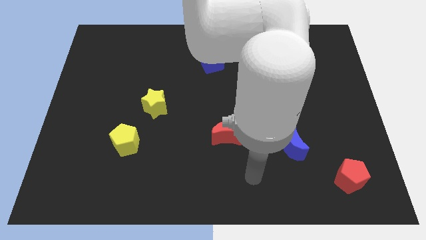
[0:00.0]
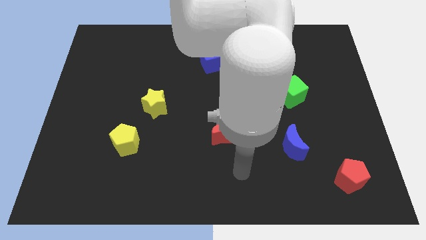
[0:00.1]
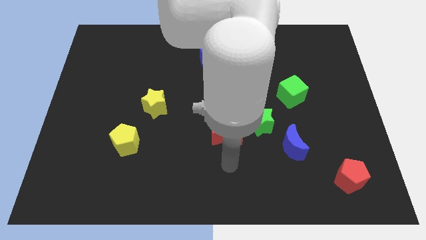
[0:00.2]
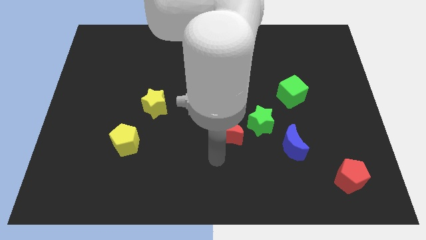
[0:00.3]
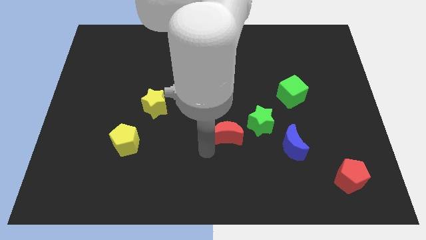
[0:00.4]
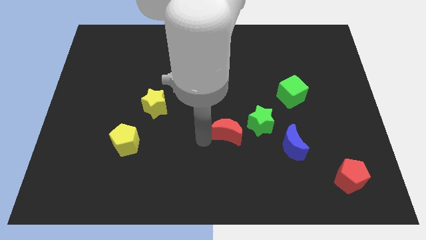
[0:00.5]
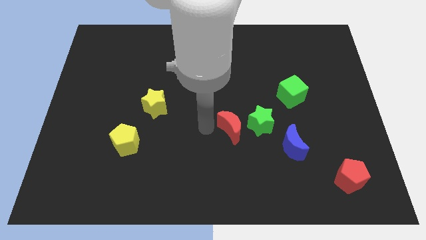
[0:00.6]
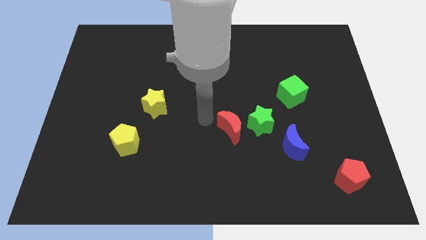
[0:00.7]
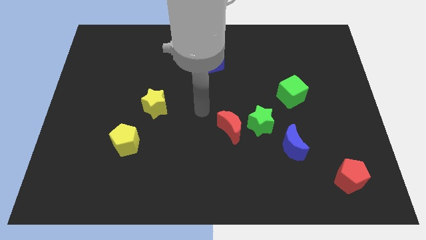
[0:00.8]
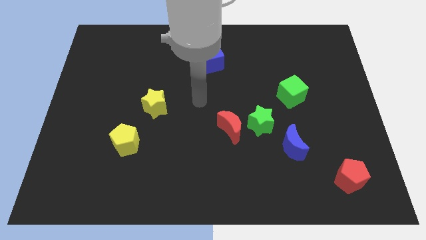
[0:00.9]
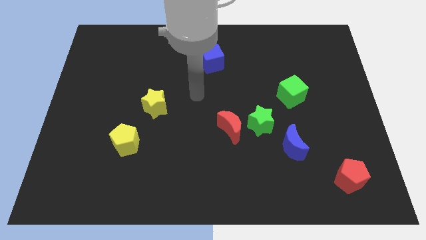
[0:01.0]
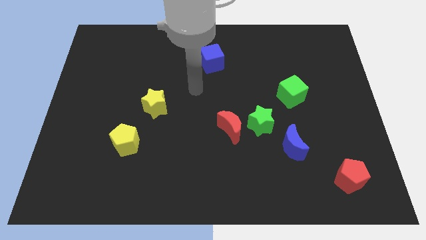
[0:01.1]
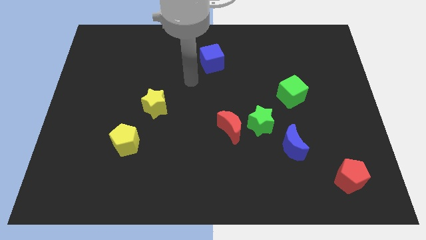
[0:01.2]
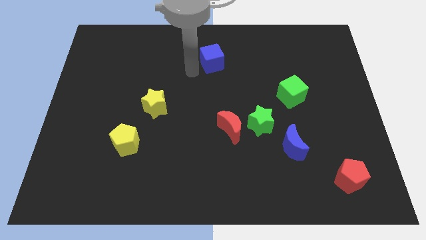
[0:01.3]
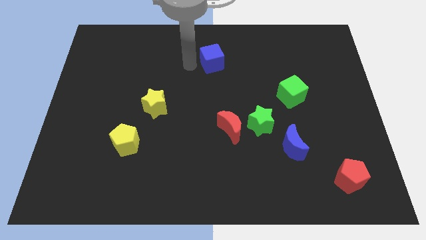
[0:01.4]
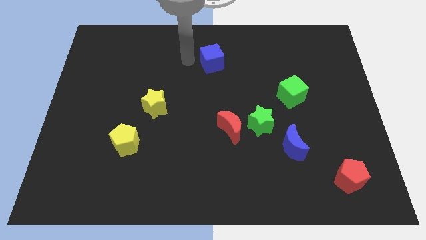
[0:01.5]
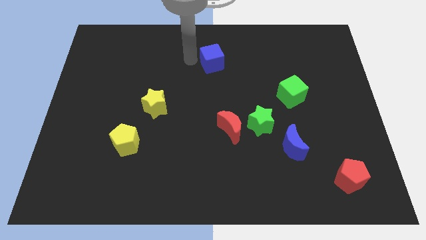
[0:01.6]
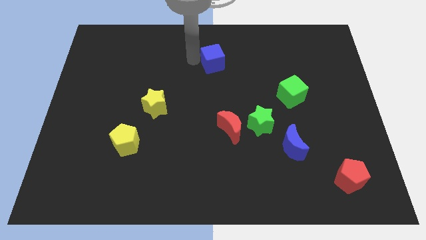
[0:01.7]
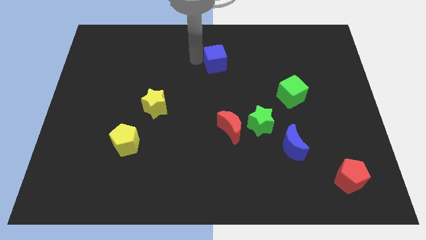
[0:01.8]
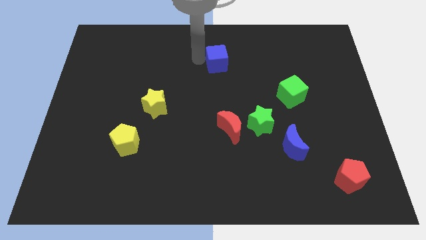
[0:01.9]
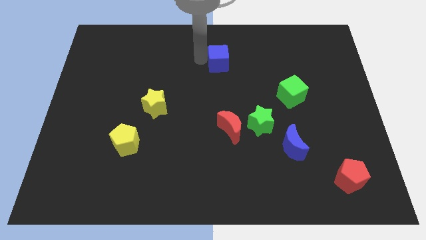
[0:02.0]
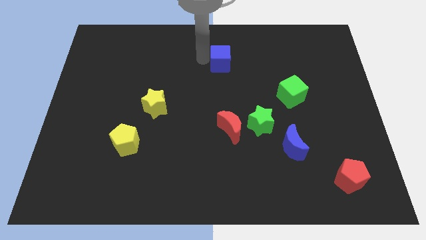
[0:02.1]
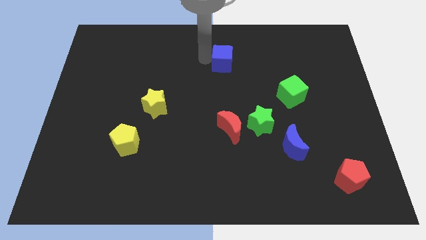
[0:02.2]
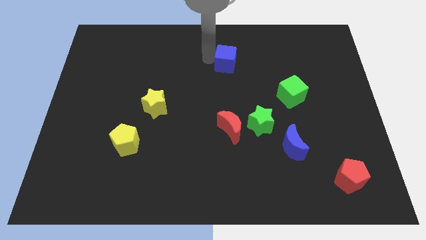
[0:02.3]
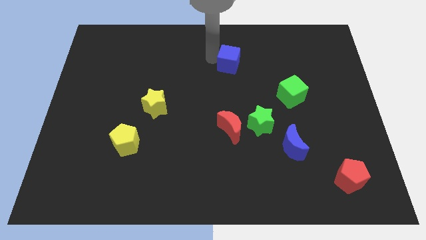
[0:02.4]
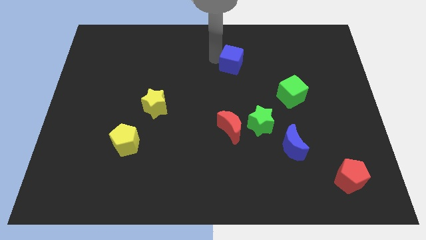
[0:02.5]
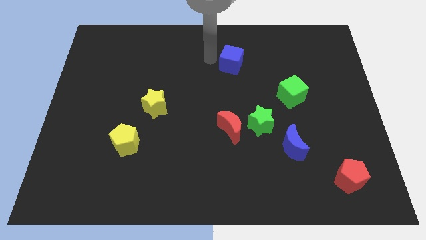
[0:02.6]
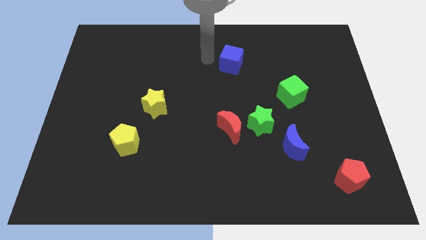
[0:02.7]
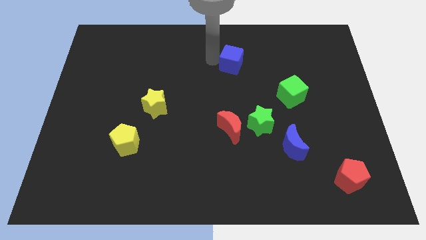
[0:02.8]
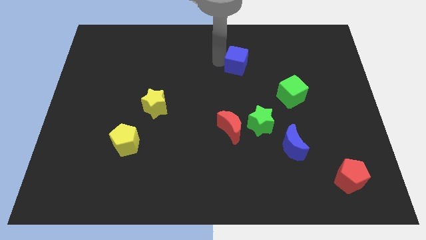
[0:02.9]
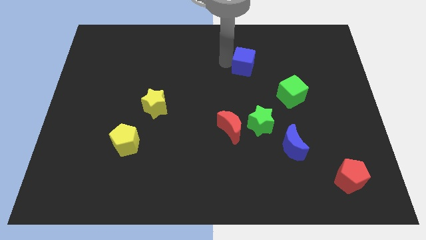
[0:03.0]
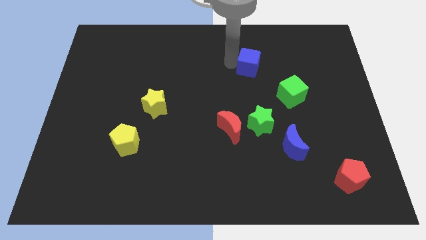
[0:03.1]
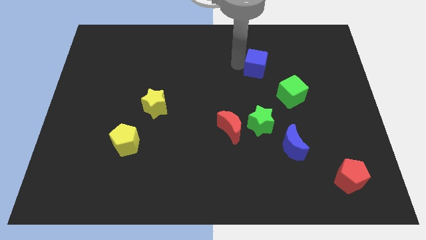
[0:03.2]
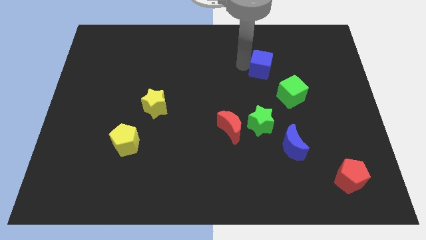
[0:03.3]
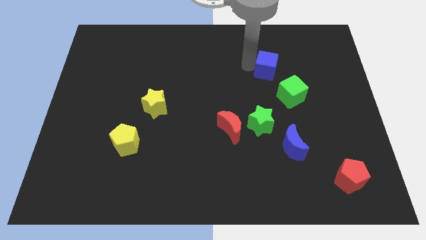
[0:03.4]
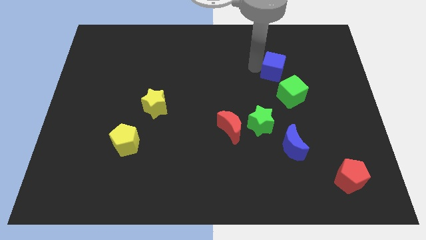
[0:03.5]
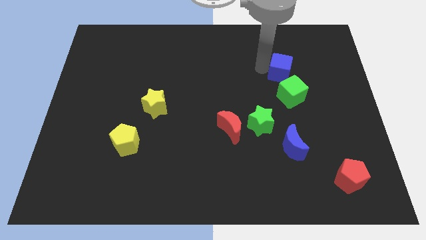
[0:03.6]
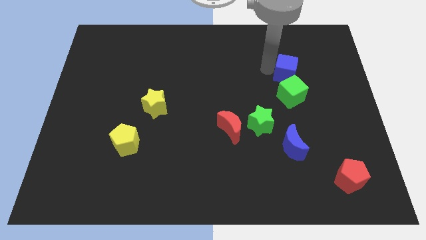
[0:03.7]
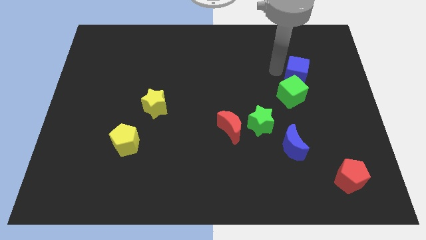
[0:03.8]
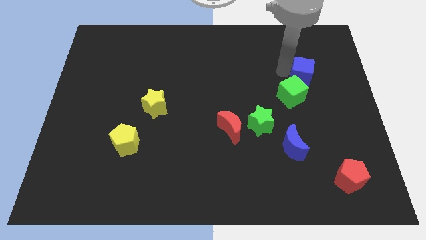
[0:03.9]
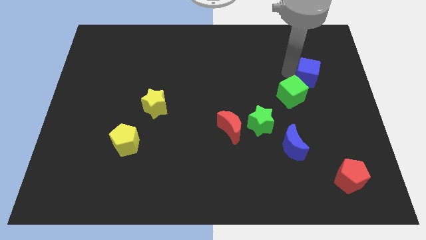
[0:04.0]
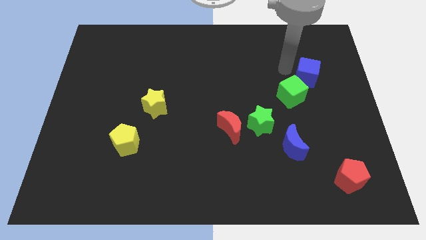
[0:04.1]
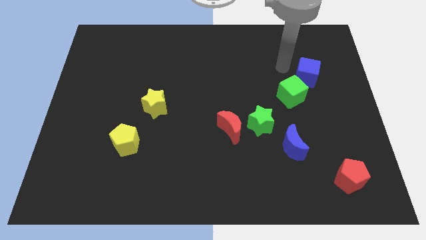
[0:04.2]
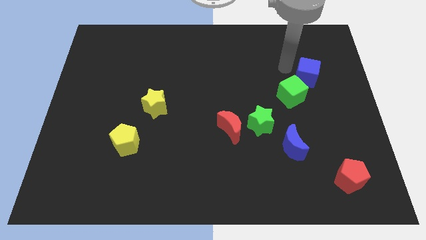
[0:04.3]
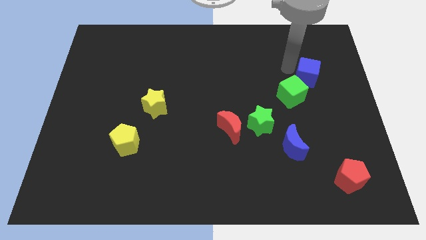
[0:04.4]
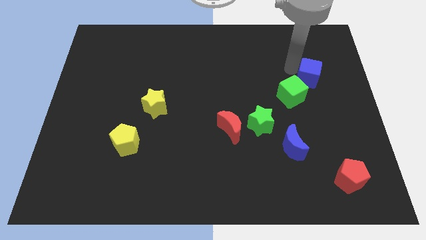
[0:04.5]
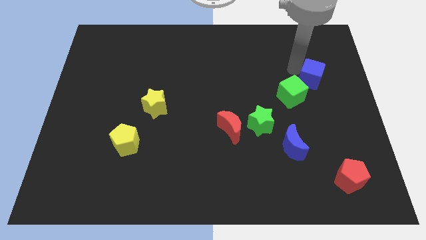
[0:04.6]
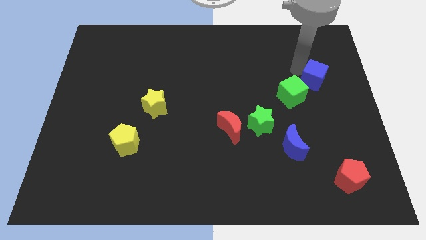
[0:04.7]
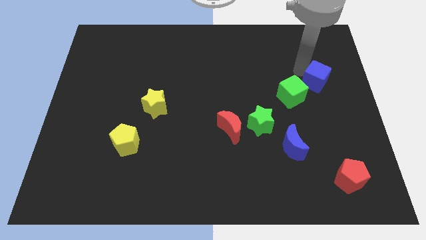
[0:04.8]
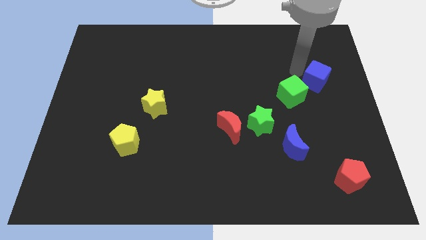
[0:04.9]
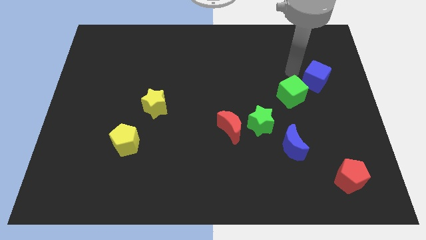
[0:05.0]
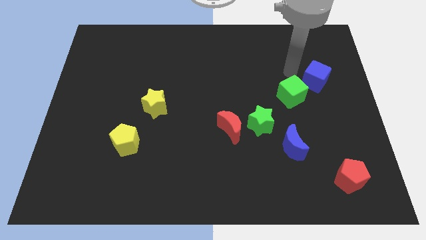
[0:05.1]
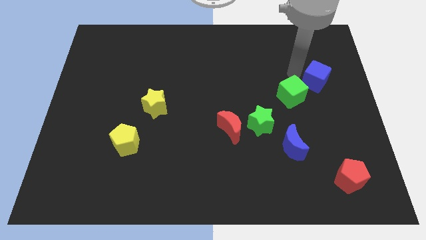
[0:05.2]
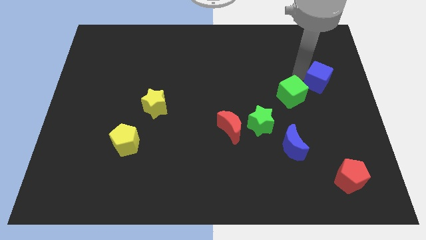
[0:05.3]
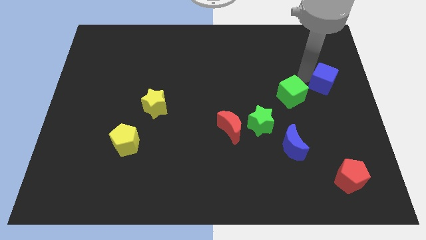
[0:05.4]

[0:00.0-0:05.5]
push the blue cube to the right side of the board

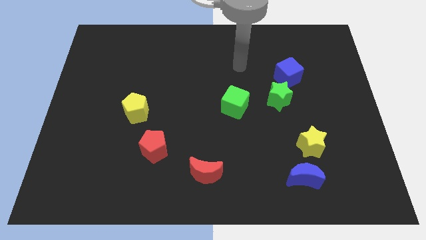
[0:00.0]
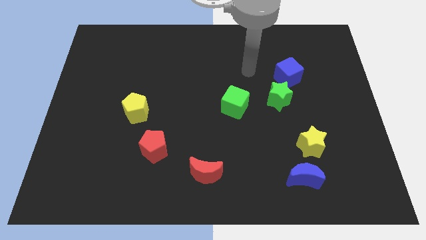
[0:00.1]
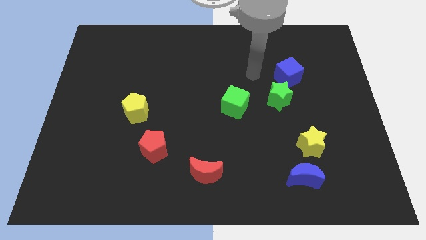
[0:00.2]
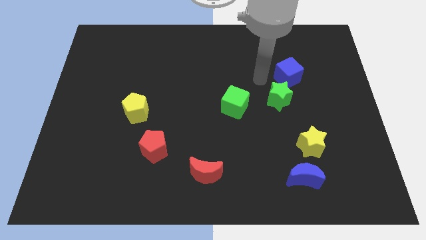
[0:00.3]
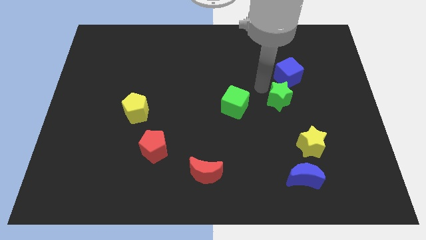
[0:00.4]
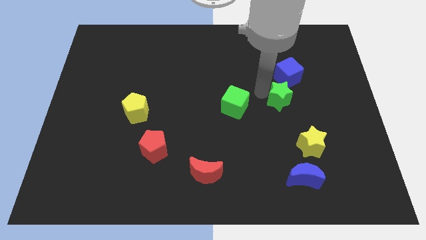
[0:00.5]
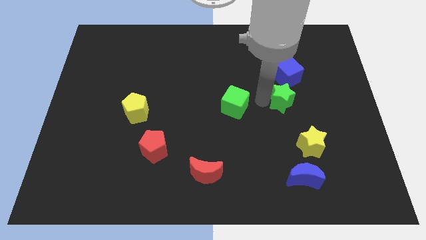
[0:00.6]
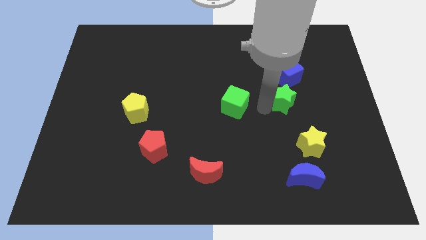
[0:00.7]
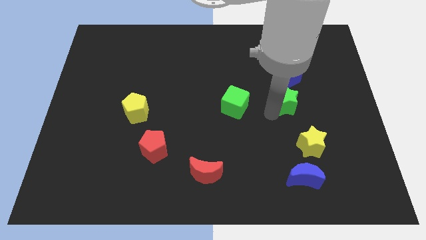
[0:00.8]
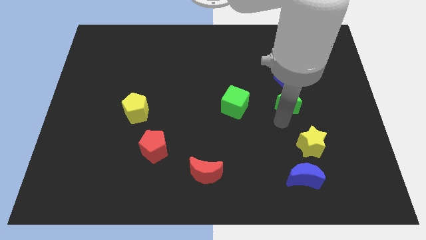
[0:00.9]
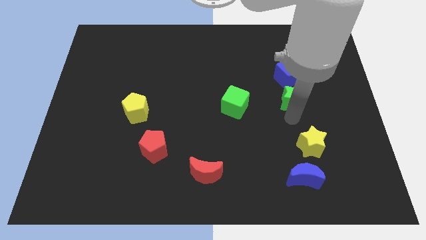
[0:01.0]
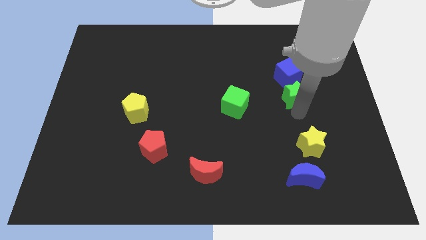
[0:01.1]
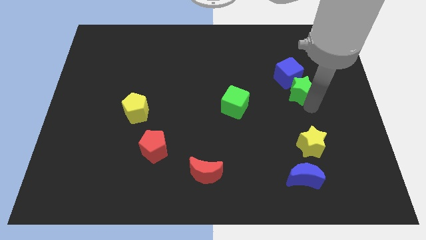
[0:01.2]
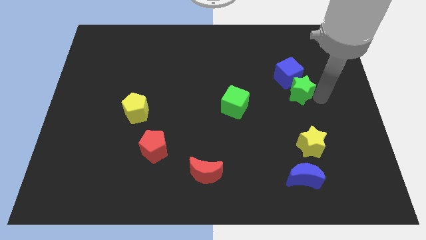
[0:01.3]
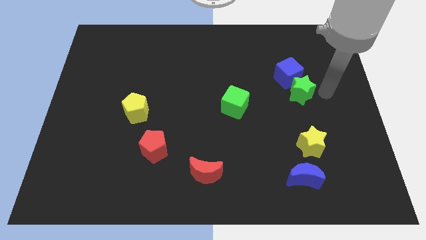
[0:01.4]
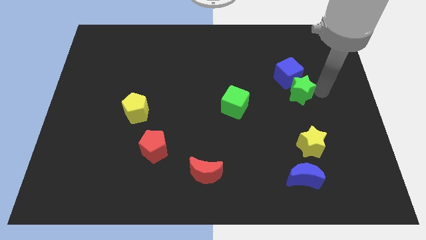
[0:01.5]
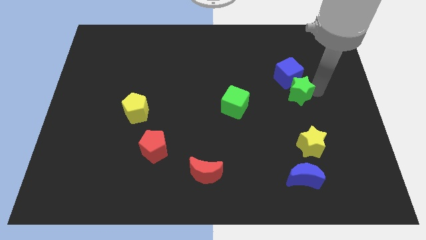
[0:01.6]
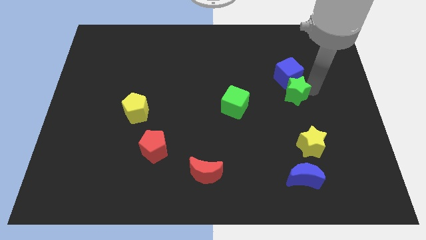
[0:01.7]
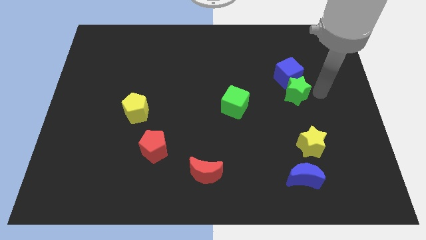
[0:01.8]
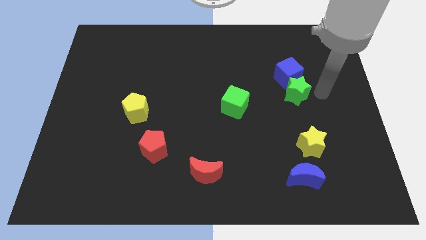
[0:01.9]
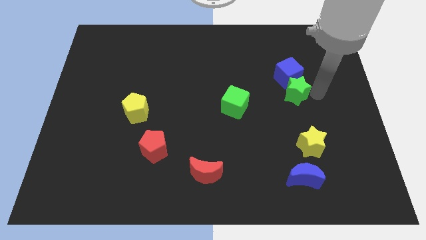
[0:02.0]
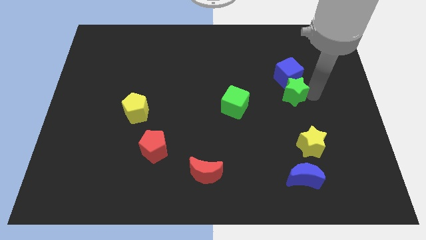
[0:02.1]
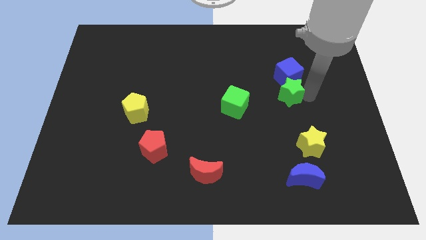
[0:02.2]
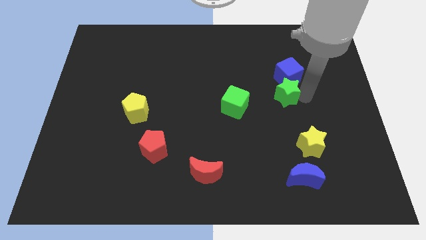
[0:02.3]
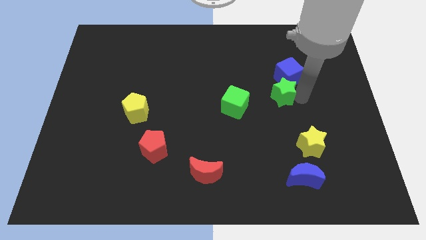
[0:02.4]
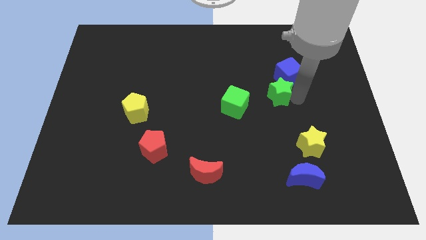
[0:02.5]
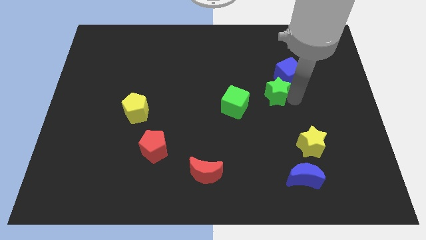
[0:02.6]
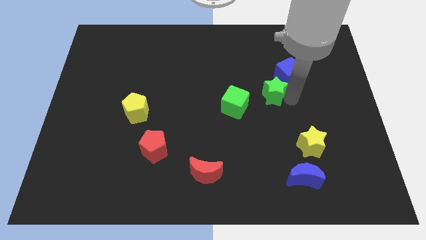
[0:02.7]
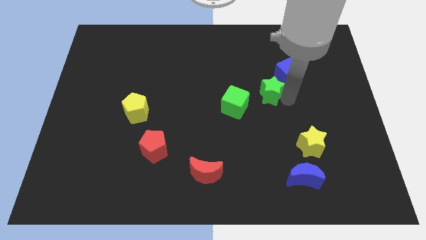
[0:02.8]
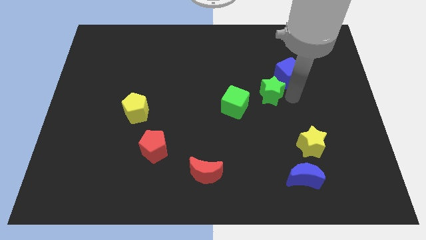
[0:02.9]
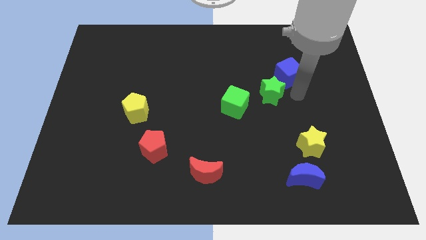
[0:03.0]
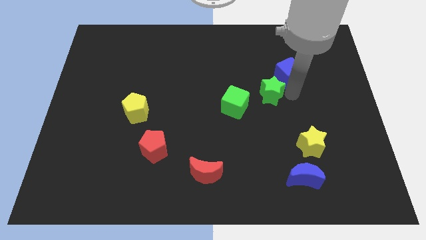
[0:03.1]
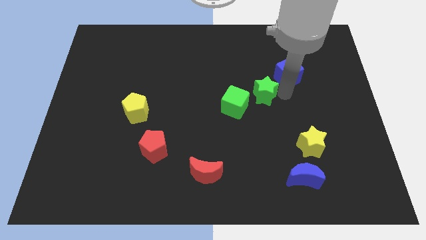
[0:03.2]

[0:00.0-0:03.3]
move the green star to the middle of the board
